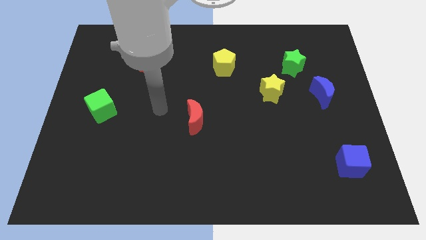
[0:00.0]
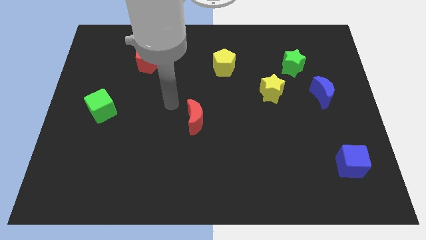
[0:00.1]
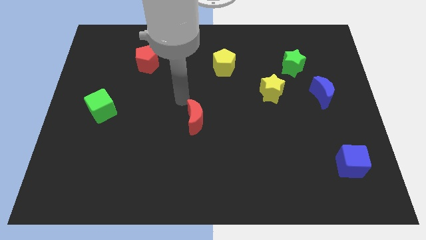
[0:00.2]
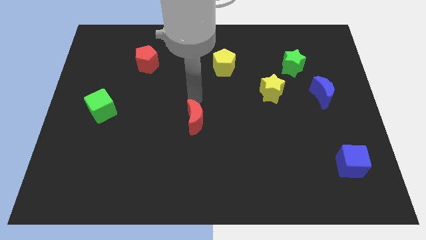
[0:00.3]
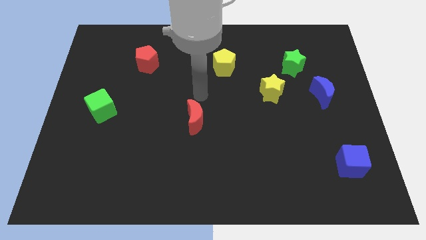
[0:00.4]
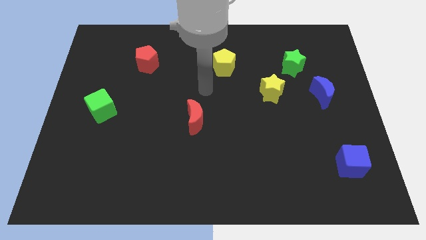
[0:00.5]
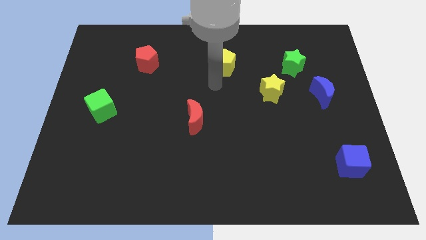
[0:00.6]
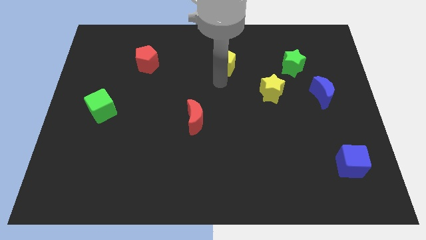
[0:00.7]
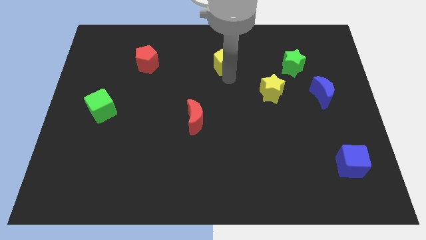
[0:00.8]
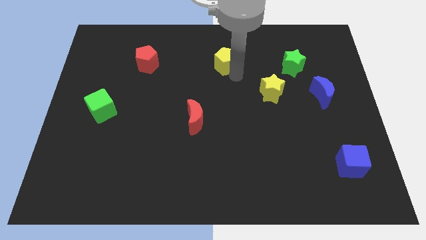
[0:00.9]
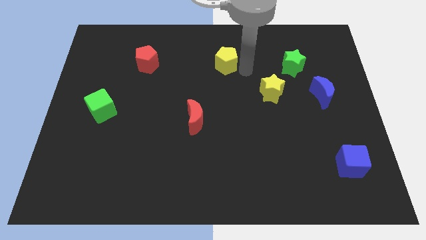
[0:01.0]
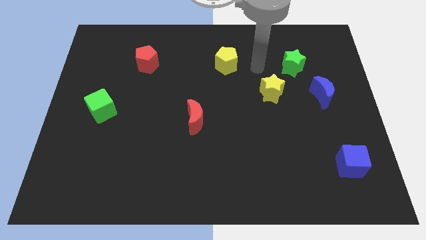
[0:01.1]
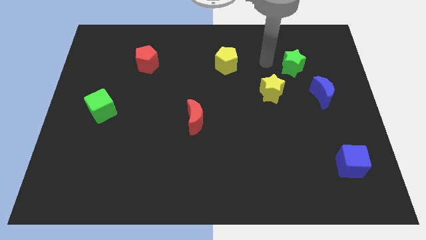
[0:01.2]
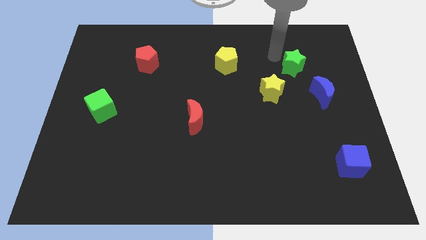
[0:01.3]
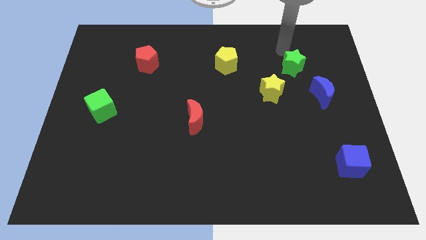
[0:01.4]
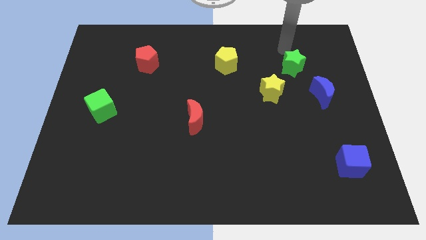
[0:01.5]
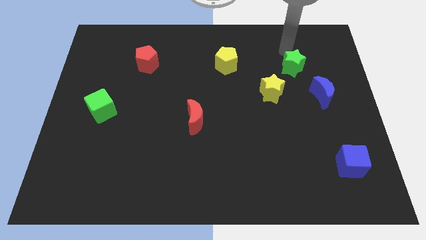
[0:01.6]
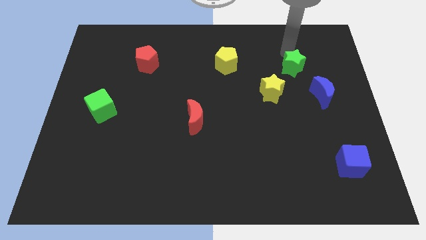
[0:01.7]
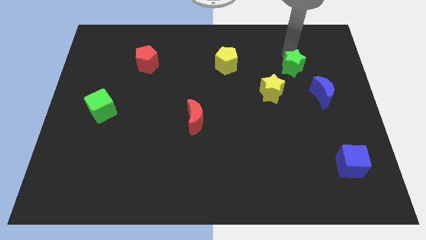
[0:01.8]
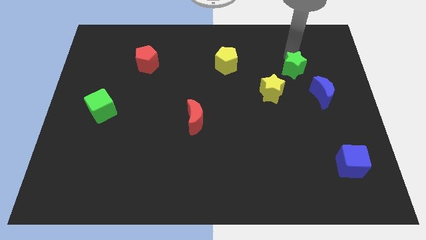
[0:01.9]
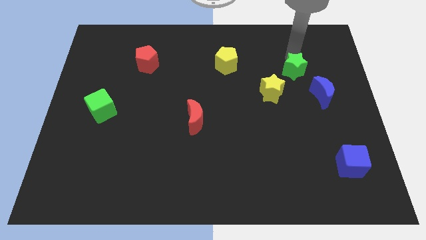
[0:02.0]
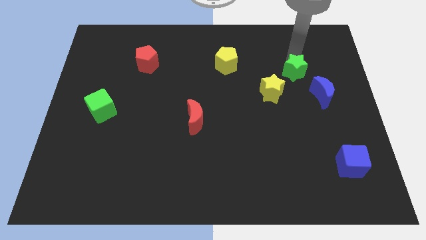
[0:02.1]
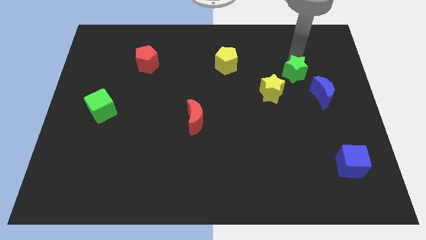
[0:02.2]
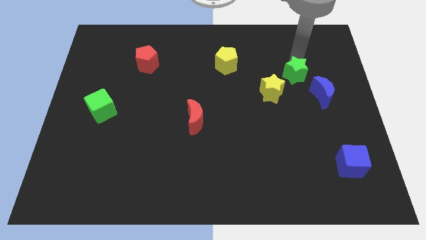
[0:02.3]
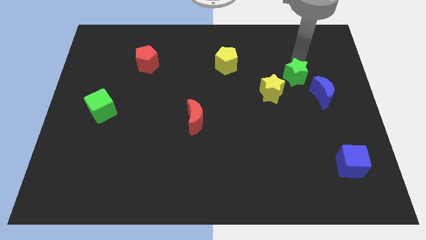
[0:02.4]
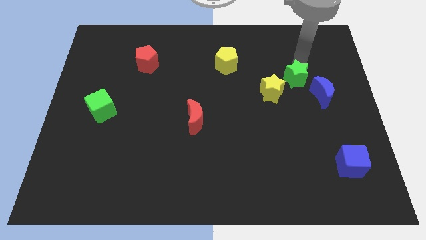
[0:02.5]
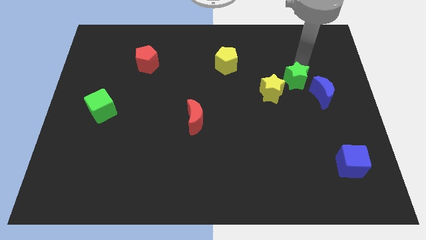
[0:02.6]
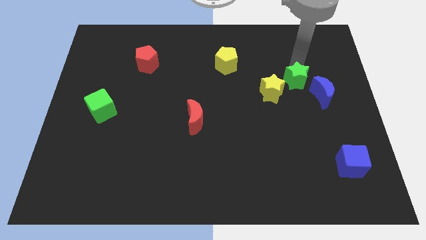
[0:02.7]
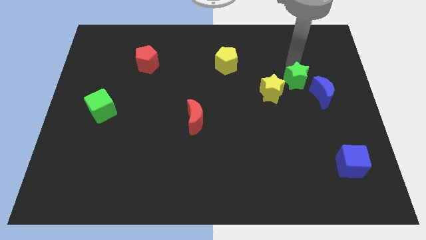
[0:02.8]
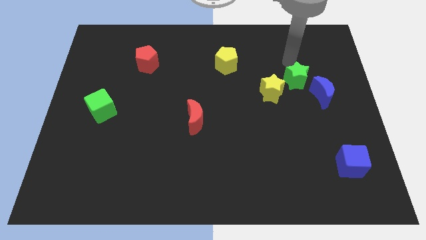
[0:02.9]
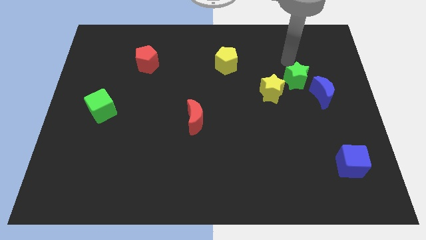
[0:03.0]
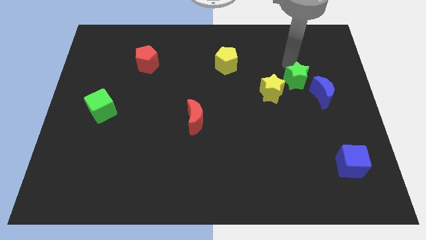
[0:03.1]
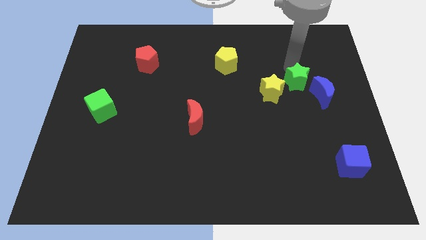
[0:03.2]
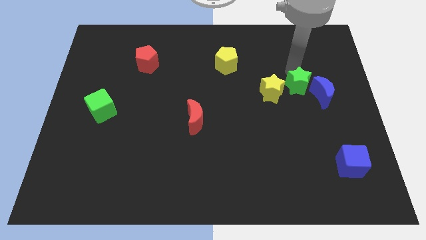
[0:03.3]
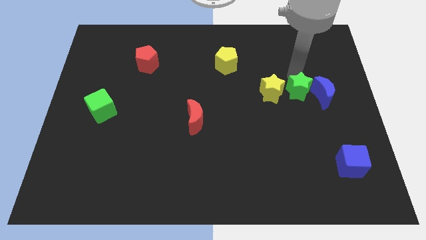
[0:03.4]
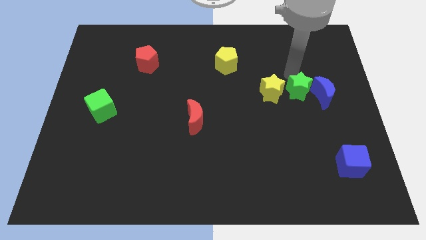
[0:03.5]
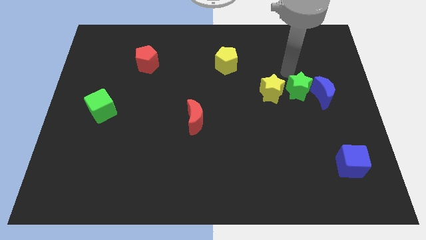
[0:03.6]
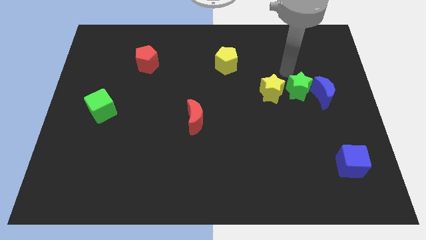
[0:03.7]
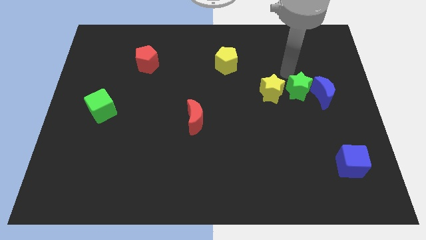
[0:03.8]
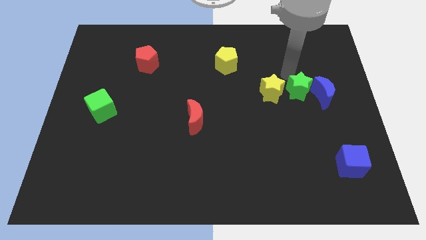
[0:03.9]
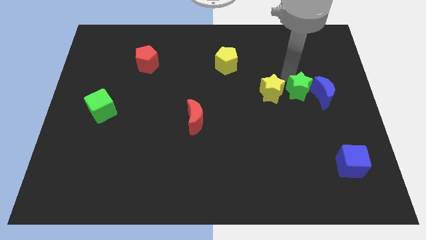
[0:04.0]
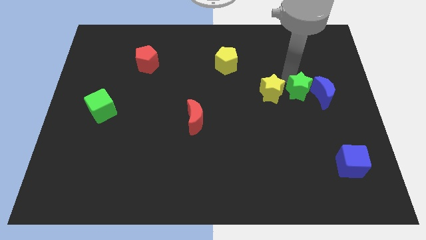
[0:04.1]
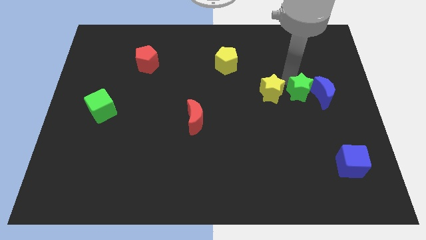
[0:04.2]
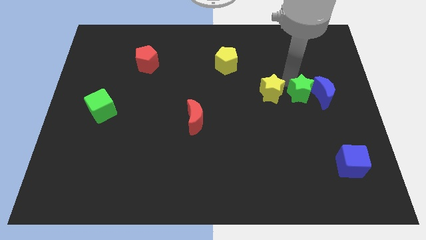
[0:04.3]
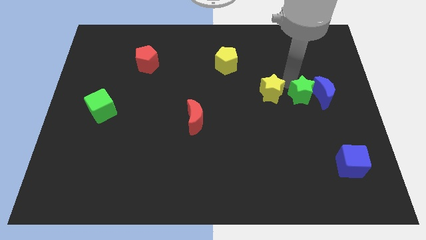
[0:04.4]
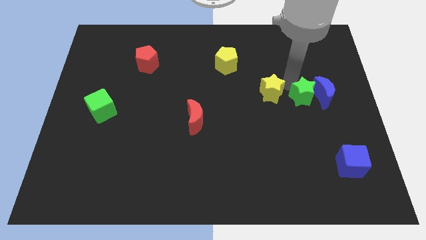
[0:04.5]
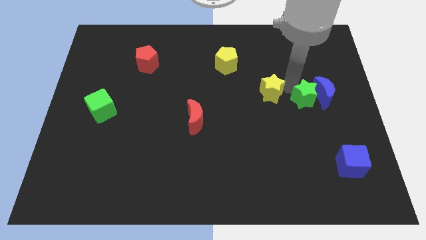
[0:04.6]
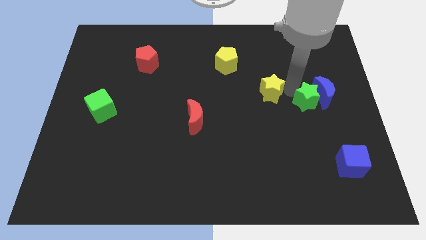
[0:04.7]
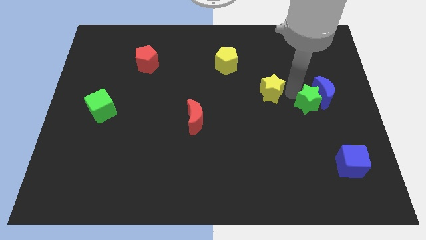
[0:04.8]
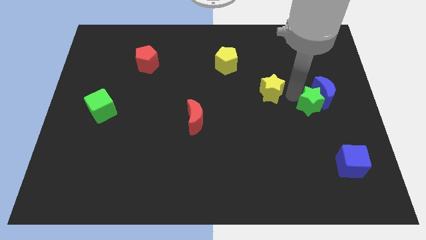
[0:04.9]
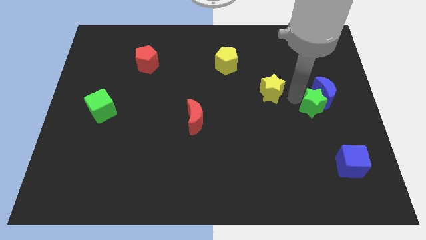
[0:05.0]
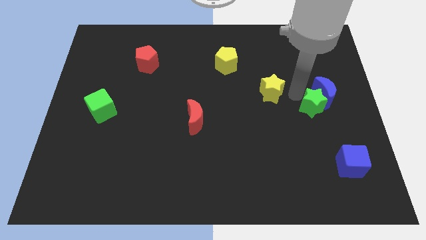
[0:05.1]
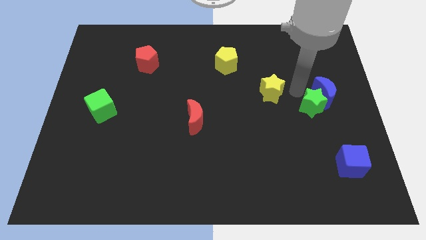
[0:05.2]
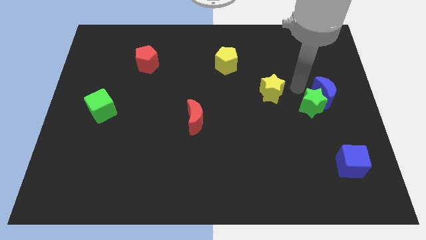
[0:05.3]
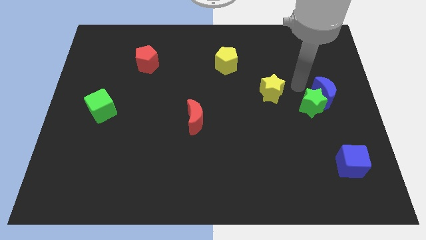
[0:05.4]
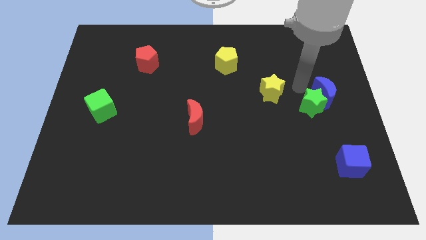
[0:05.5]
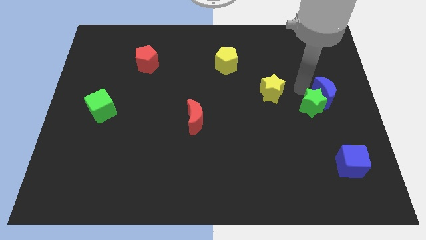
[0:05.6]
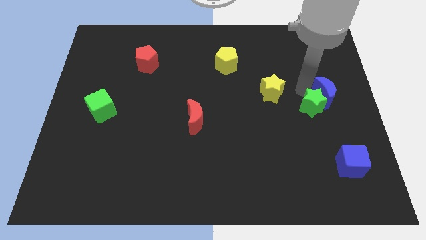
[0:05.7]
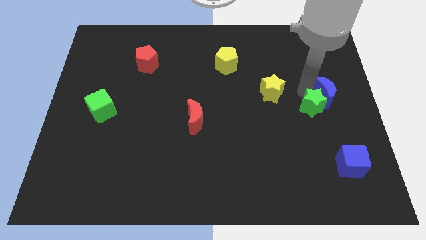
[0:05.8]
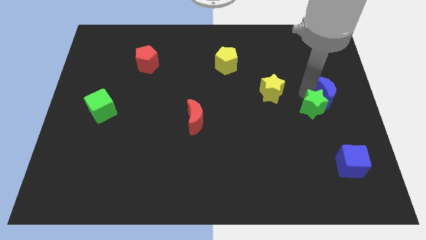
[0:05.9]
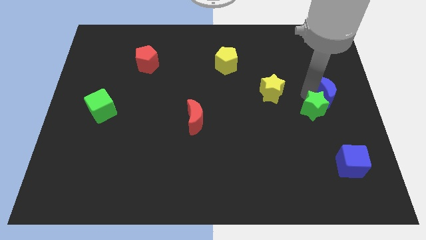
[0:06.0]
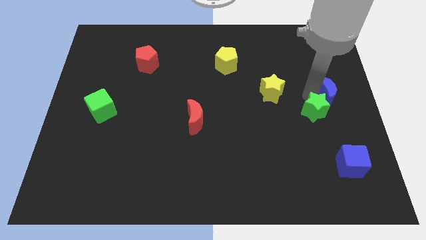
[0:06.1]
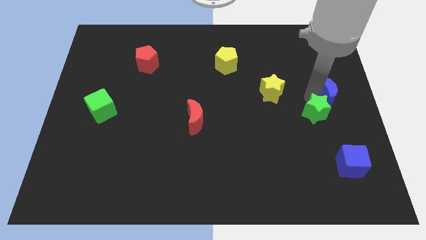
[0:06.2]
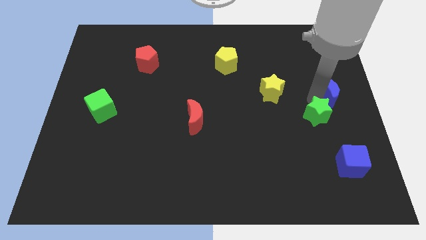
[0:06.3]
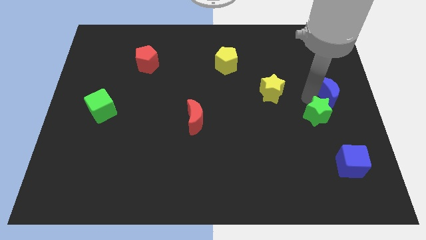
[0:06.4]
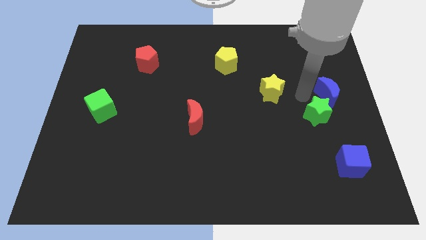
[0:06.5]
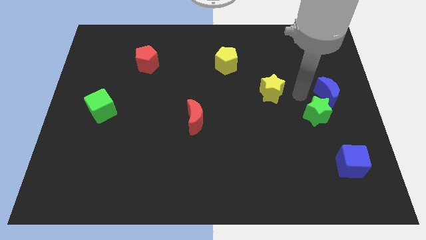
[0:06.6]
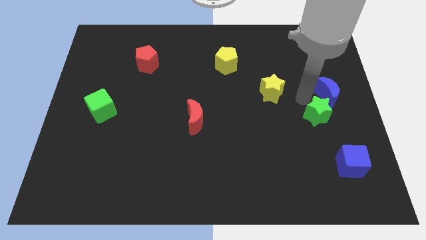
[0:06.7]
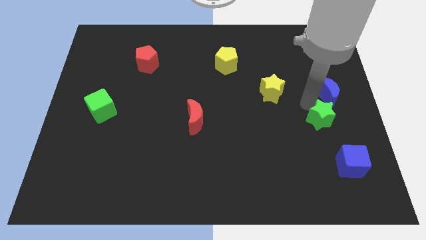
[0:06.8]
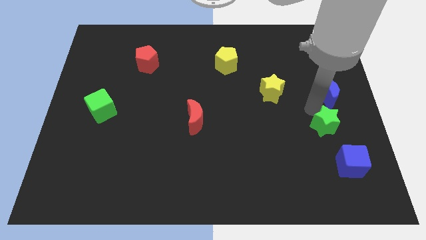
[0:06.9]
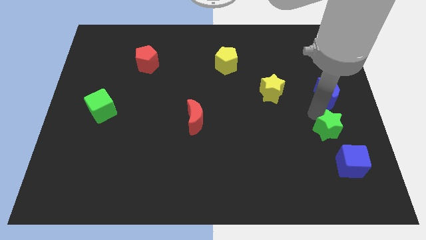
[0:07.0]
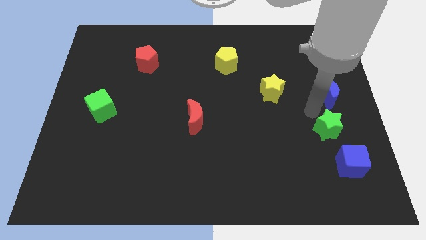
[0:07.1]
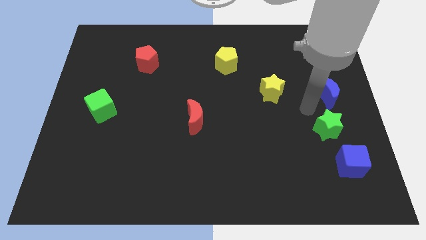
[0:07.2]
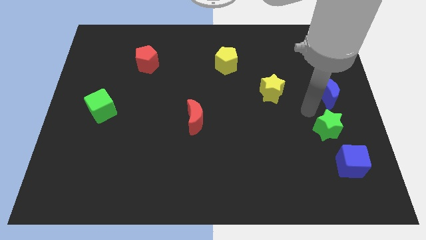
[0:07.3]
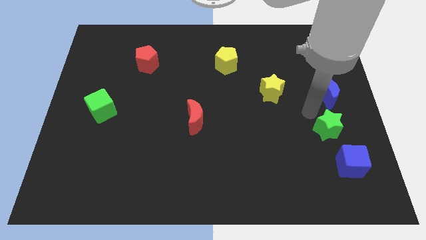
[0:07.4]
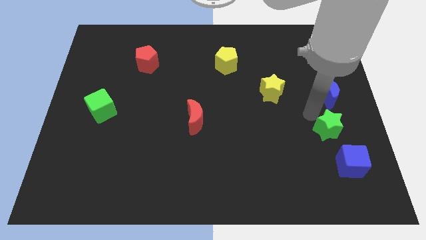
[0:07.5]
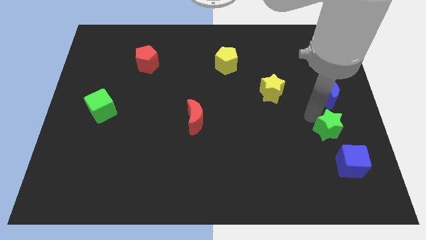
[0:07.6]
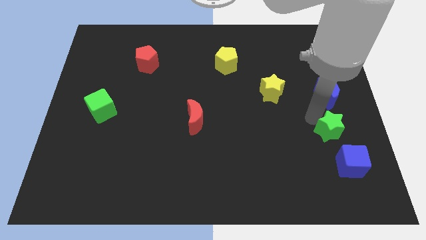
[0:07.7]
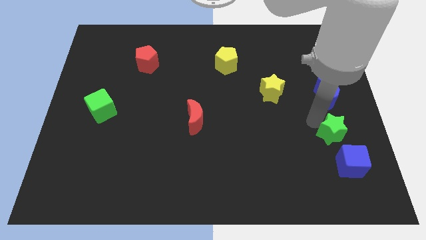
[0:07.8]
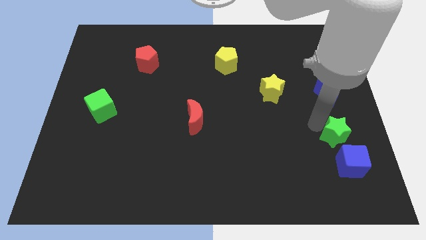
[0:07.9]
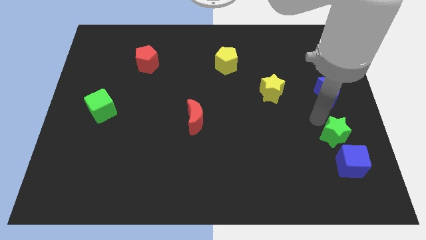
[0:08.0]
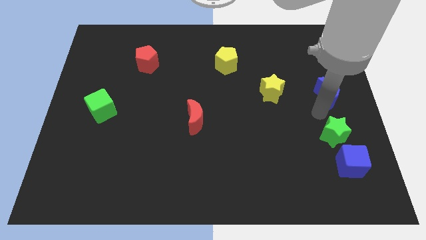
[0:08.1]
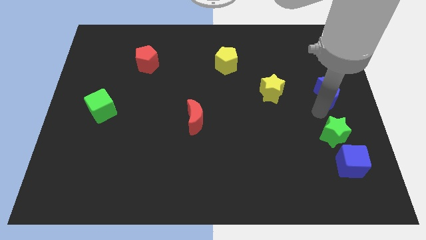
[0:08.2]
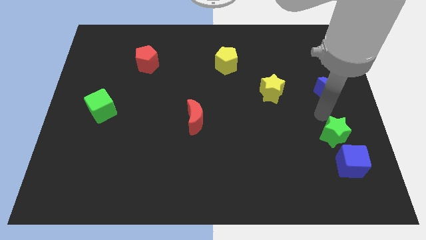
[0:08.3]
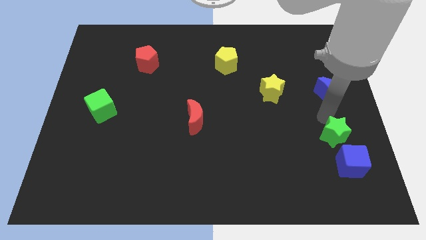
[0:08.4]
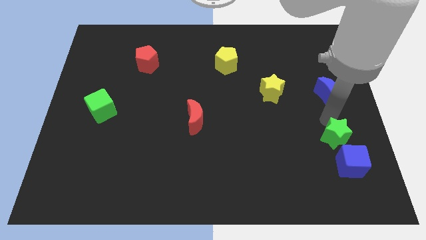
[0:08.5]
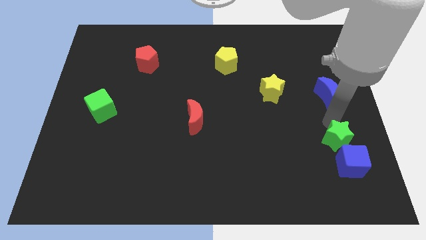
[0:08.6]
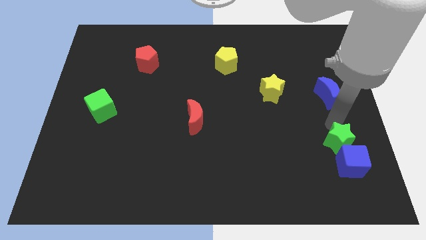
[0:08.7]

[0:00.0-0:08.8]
put the green star next to the blue cube
